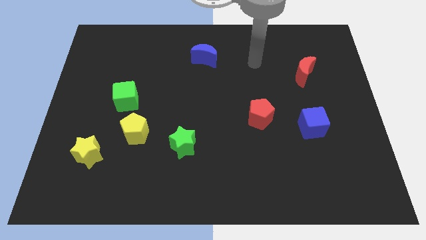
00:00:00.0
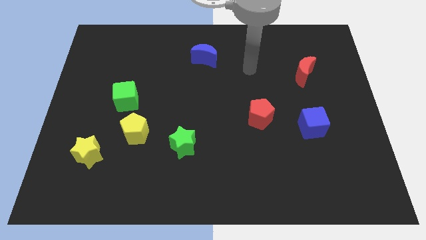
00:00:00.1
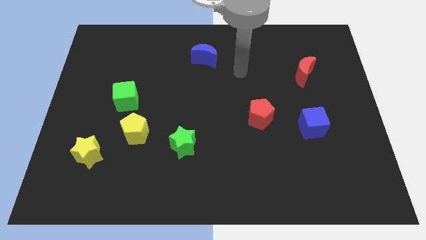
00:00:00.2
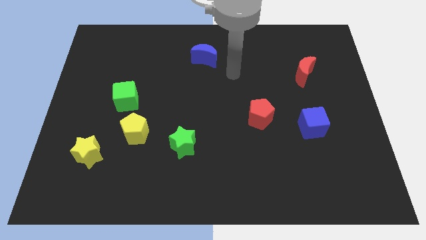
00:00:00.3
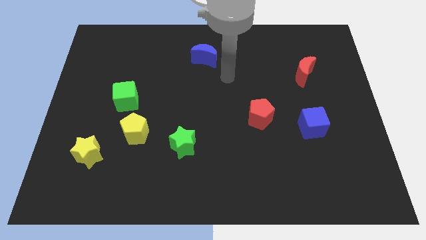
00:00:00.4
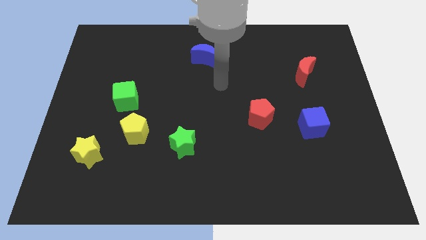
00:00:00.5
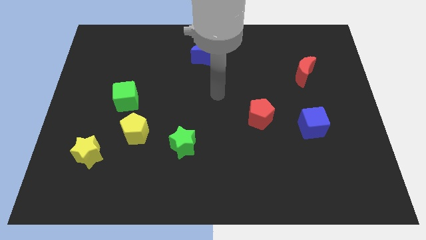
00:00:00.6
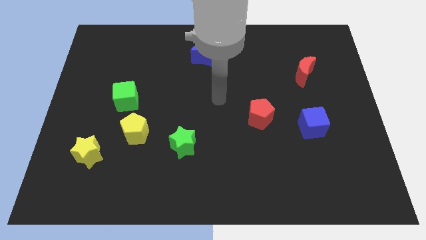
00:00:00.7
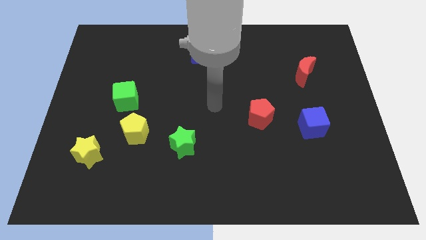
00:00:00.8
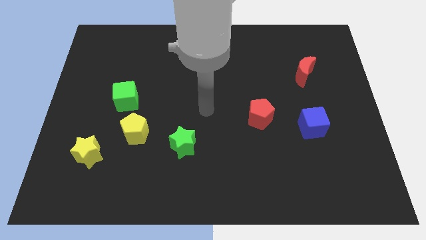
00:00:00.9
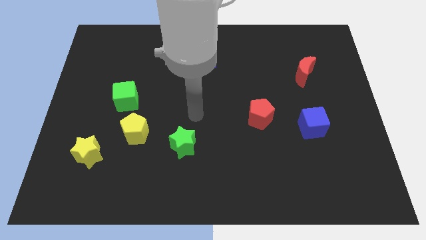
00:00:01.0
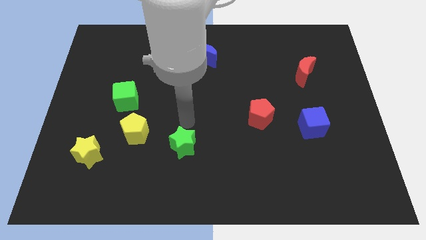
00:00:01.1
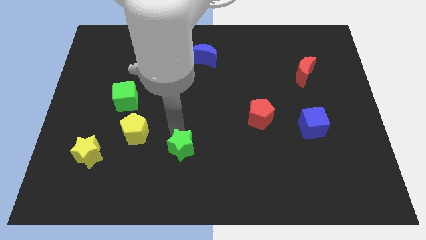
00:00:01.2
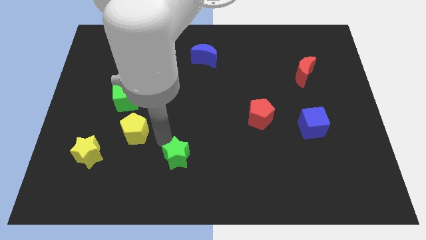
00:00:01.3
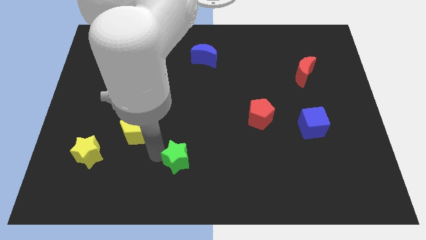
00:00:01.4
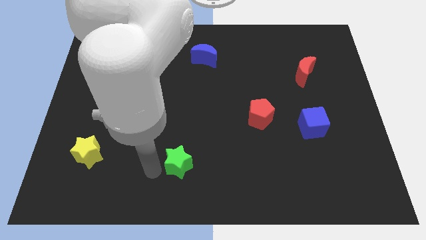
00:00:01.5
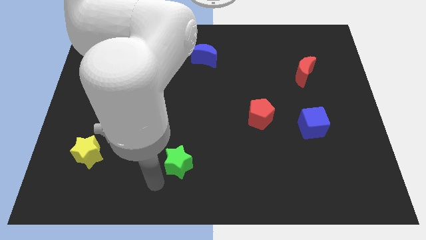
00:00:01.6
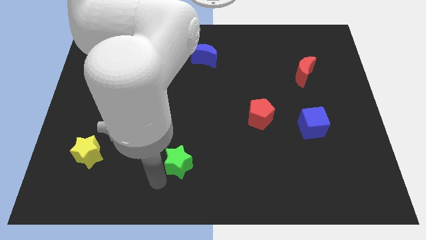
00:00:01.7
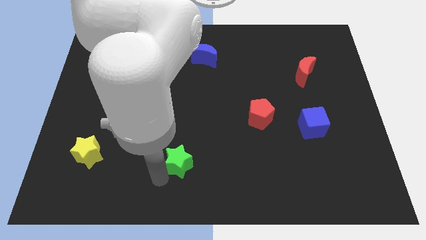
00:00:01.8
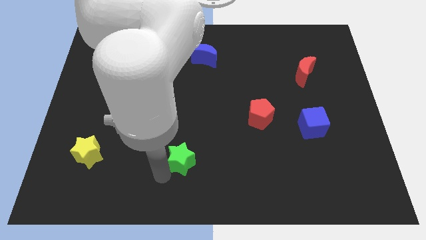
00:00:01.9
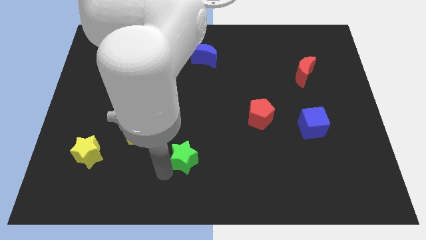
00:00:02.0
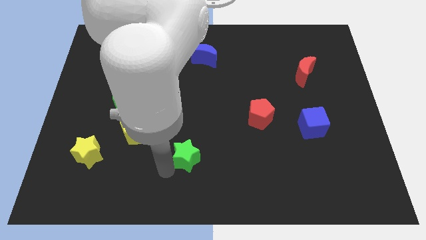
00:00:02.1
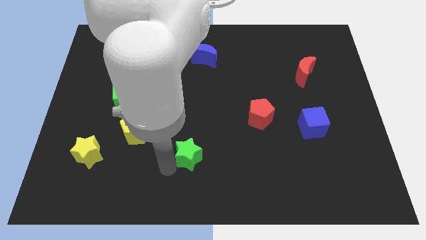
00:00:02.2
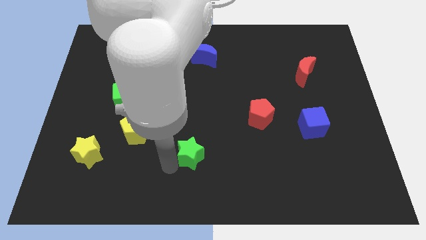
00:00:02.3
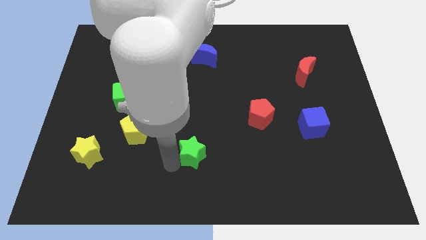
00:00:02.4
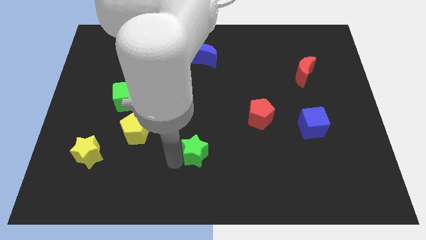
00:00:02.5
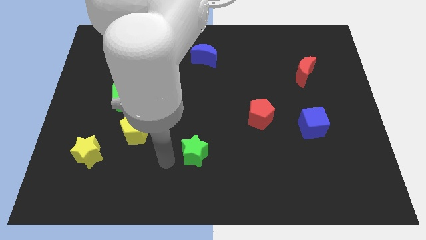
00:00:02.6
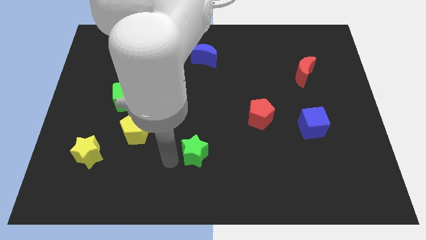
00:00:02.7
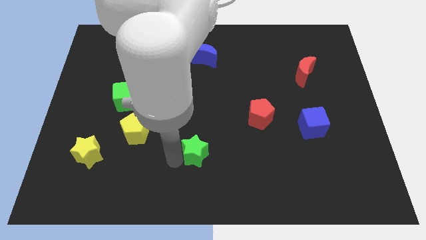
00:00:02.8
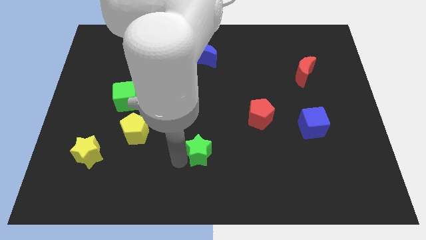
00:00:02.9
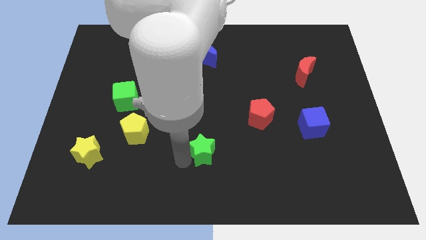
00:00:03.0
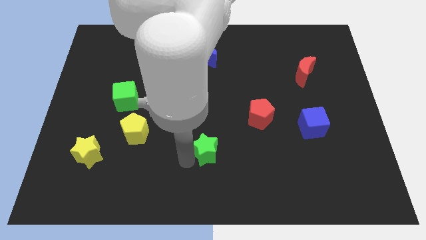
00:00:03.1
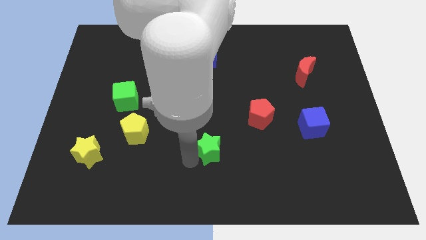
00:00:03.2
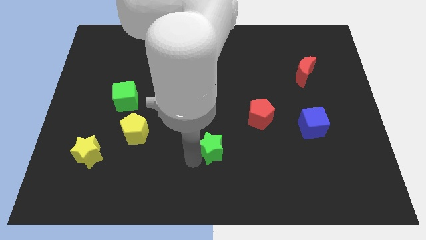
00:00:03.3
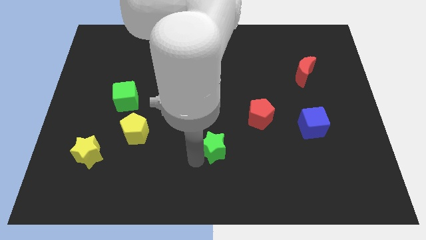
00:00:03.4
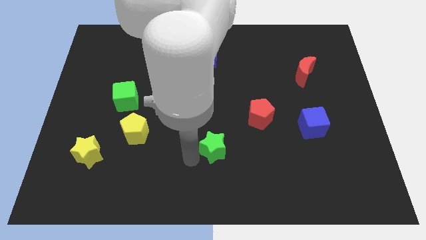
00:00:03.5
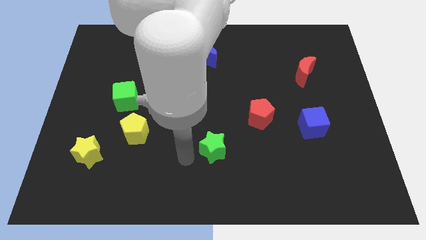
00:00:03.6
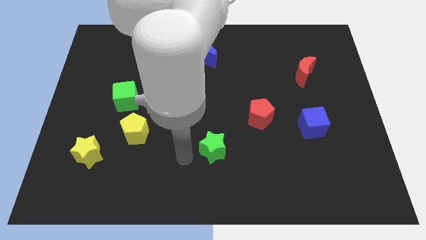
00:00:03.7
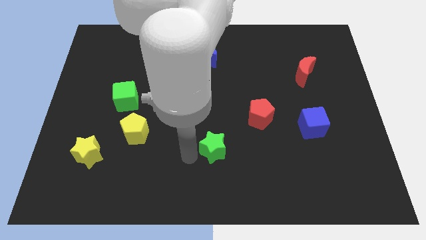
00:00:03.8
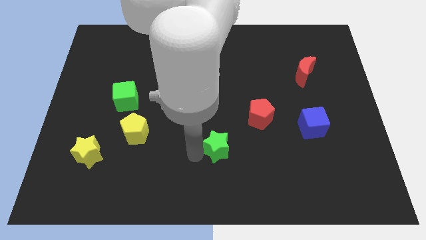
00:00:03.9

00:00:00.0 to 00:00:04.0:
slide the green star somewhat right

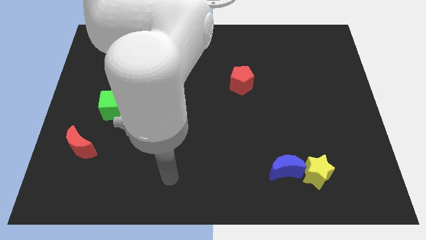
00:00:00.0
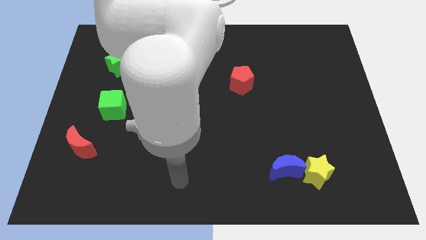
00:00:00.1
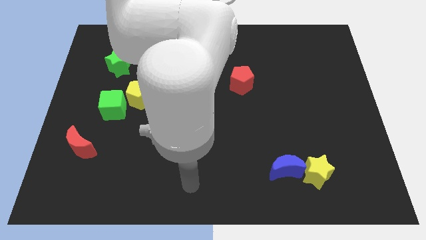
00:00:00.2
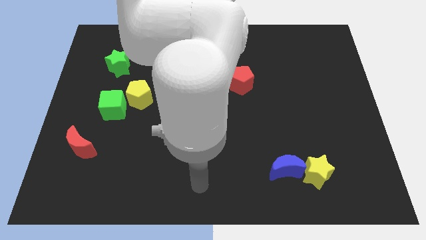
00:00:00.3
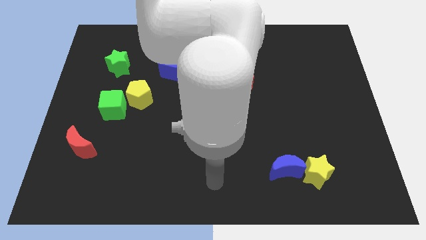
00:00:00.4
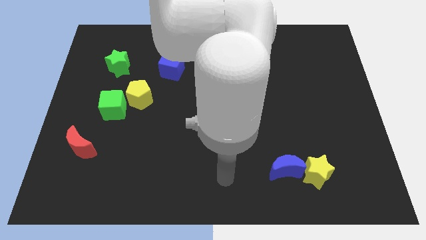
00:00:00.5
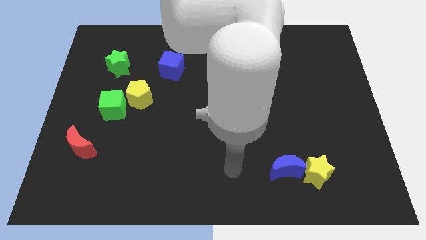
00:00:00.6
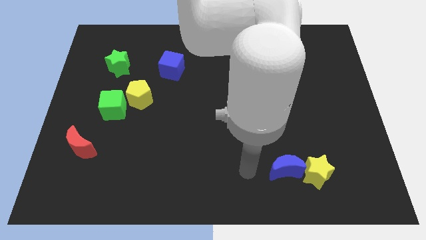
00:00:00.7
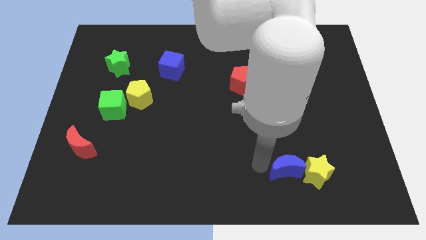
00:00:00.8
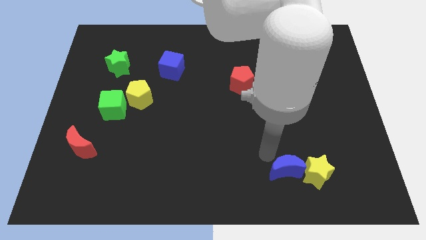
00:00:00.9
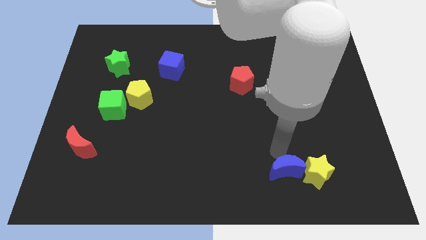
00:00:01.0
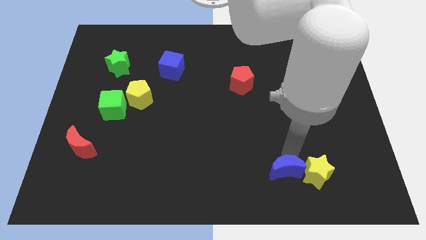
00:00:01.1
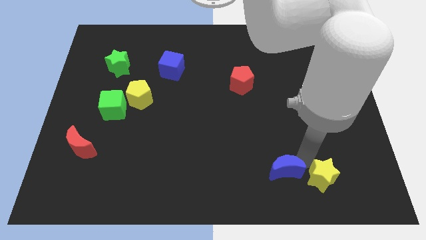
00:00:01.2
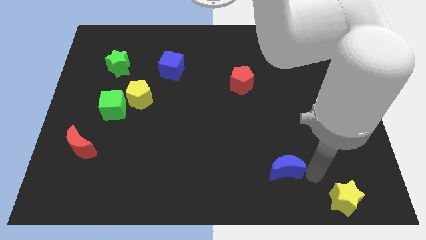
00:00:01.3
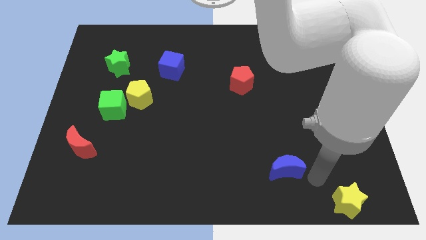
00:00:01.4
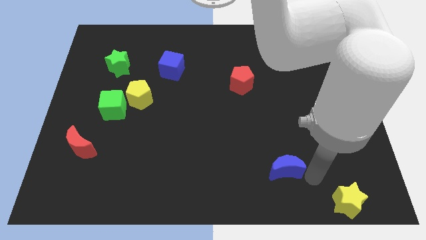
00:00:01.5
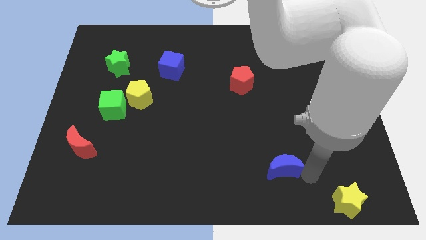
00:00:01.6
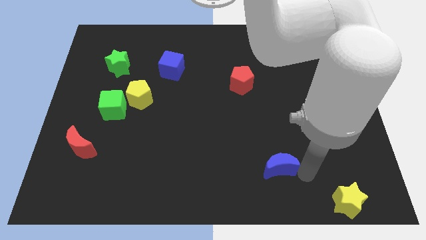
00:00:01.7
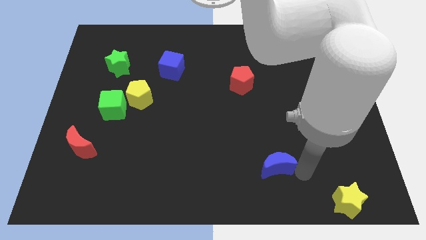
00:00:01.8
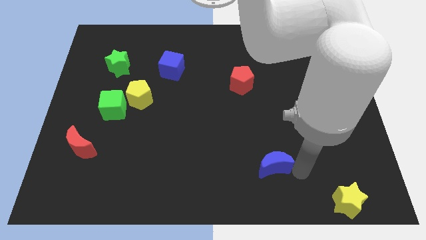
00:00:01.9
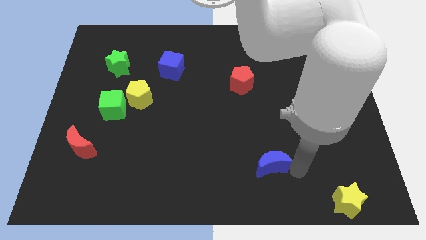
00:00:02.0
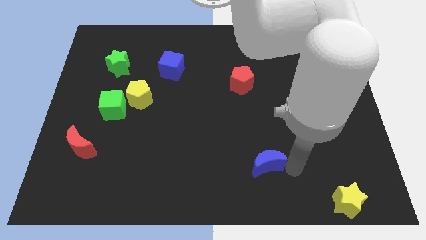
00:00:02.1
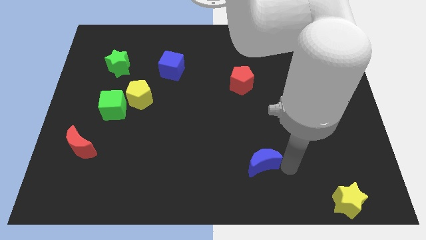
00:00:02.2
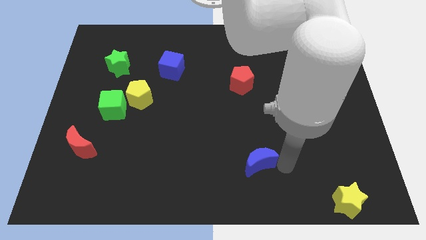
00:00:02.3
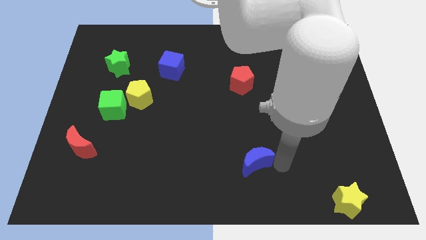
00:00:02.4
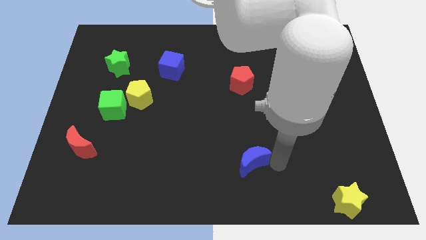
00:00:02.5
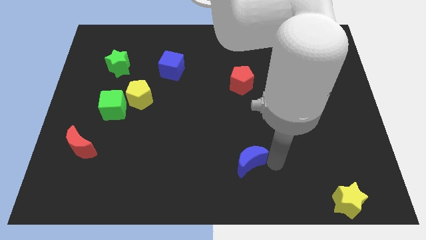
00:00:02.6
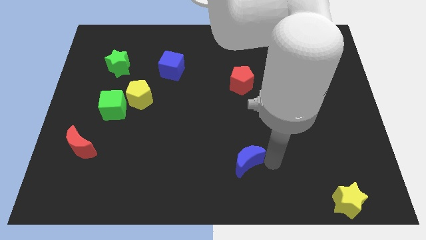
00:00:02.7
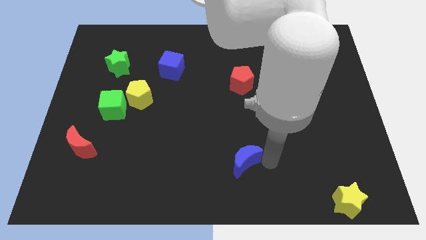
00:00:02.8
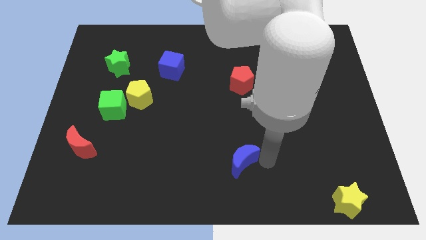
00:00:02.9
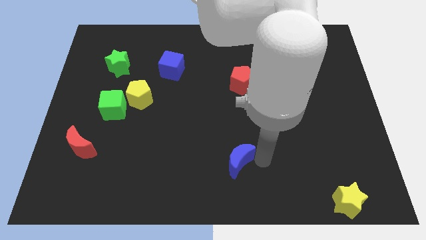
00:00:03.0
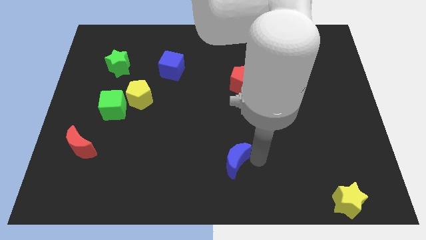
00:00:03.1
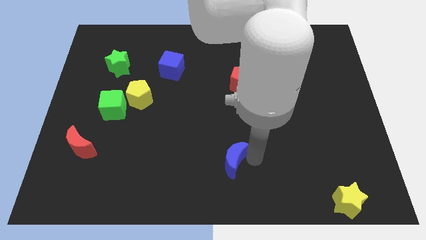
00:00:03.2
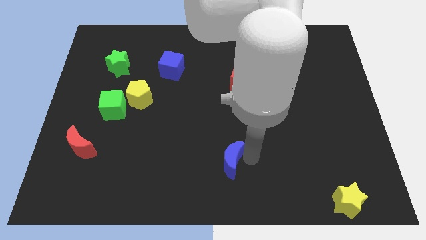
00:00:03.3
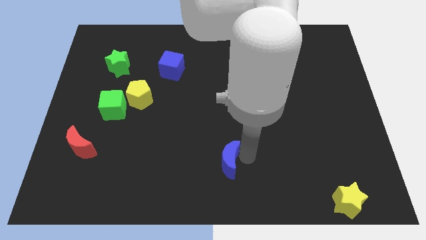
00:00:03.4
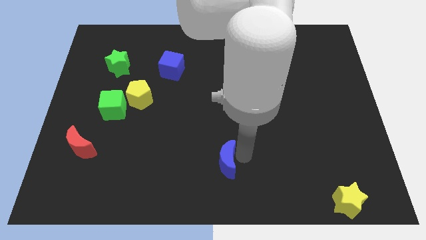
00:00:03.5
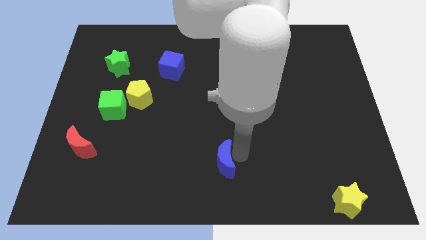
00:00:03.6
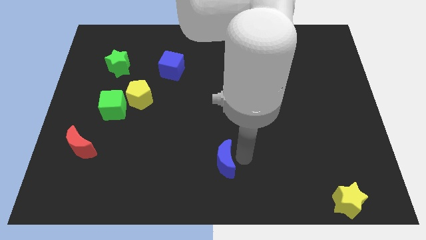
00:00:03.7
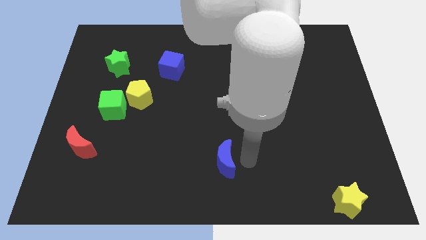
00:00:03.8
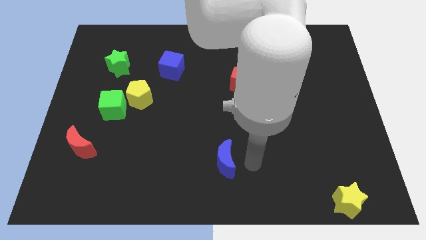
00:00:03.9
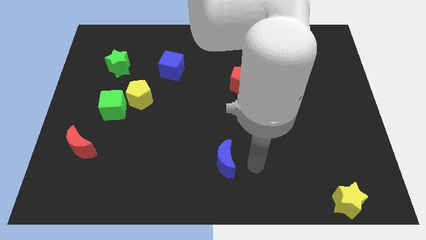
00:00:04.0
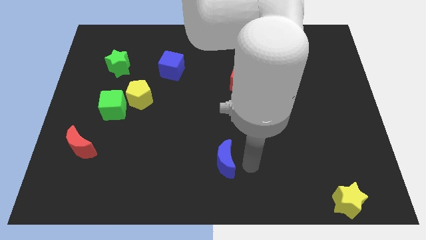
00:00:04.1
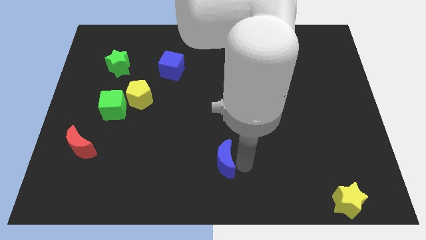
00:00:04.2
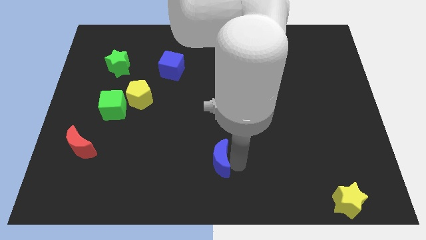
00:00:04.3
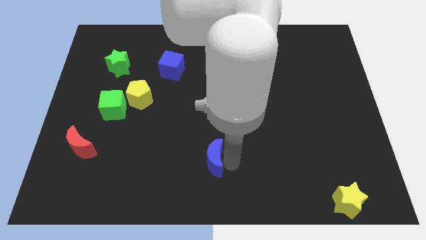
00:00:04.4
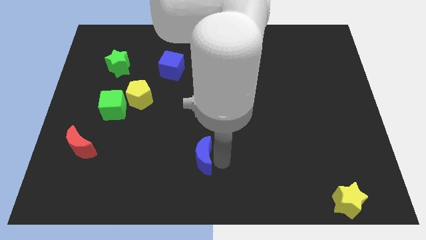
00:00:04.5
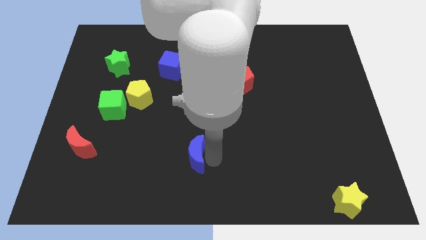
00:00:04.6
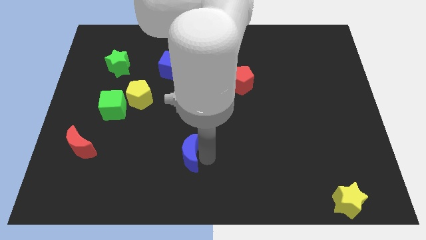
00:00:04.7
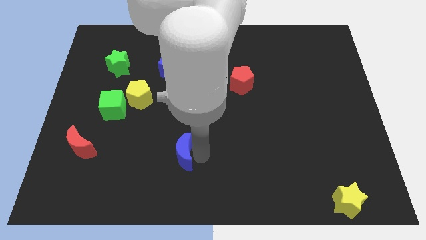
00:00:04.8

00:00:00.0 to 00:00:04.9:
move the blue moon left
